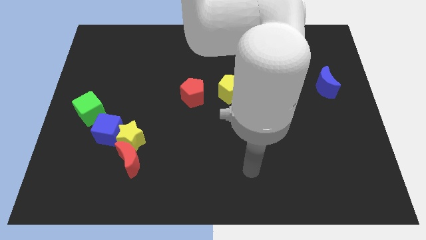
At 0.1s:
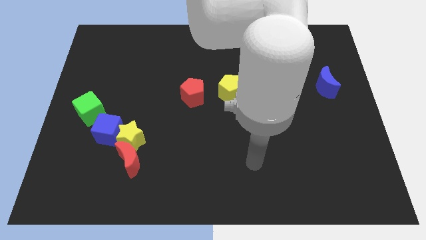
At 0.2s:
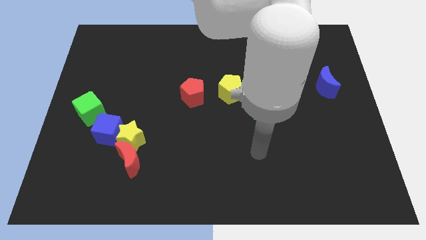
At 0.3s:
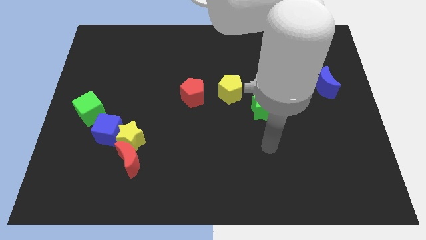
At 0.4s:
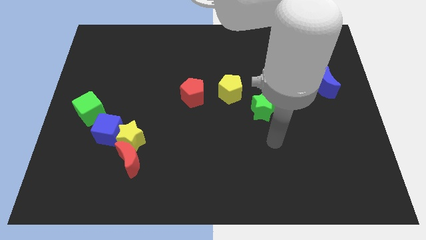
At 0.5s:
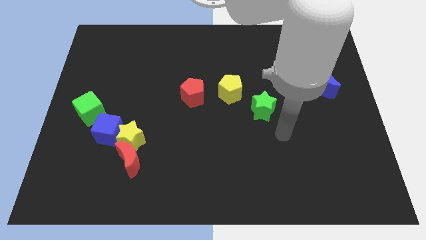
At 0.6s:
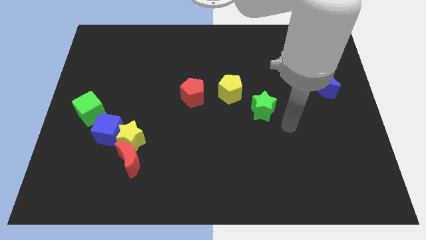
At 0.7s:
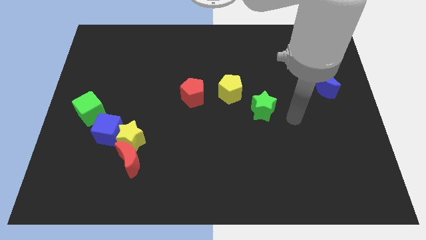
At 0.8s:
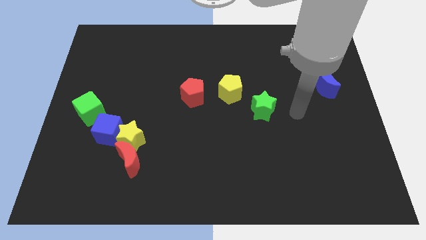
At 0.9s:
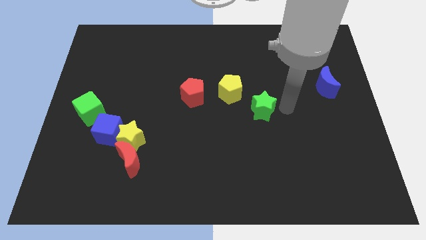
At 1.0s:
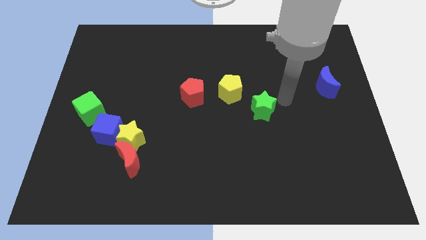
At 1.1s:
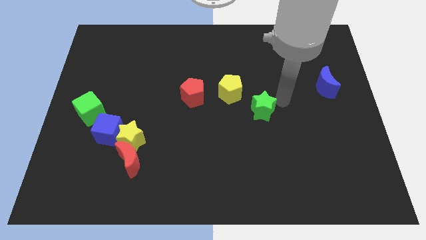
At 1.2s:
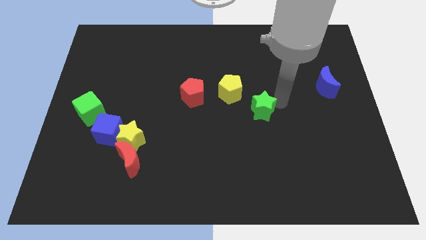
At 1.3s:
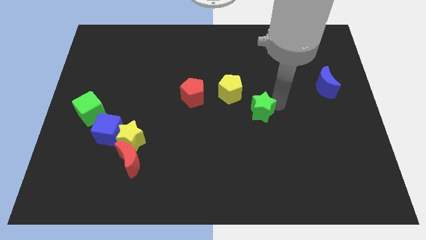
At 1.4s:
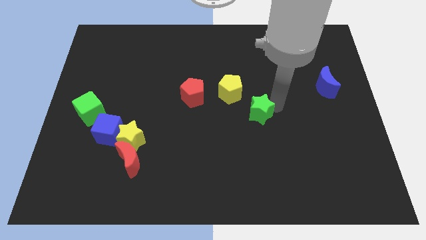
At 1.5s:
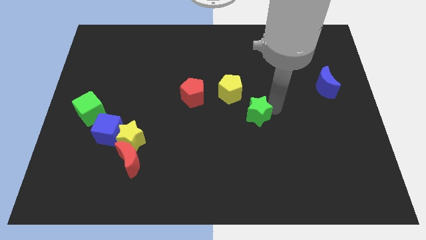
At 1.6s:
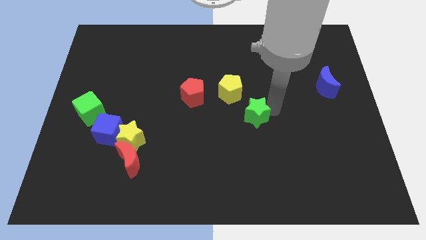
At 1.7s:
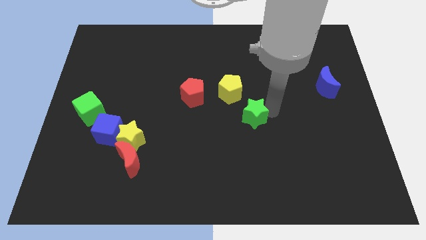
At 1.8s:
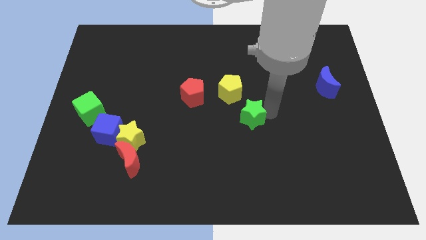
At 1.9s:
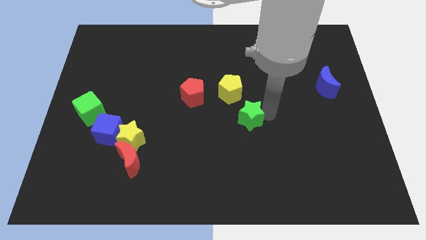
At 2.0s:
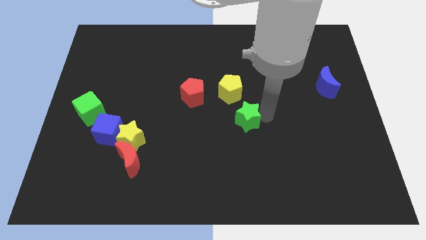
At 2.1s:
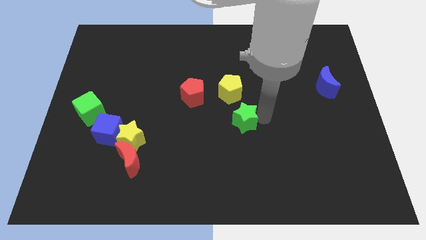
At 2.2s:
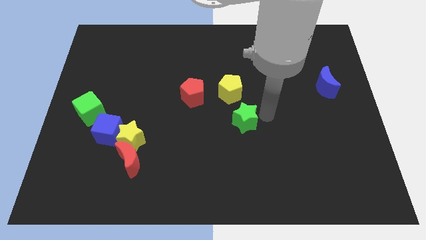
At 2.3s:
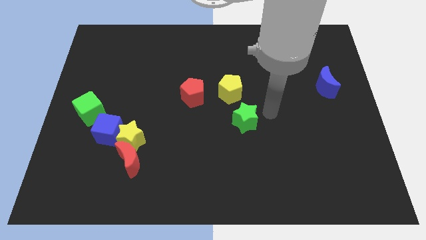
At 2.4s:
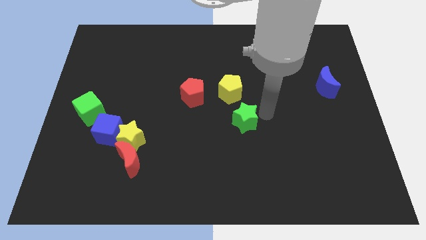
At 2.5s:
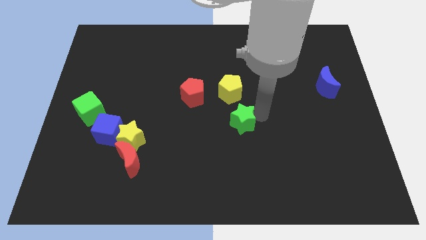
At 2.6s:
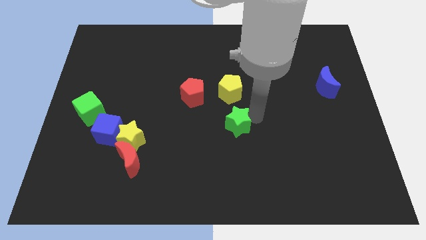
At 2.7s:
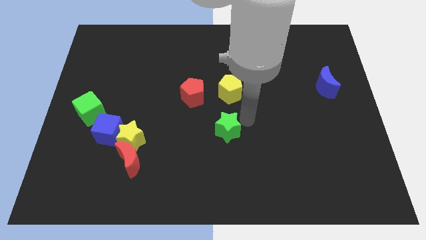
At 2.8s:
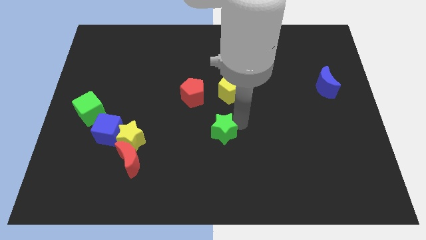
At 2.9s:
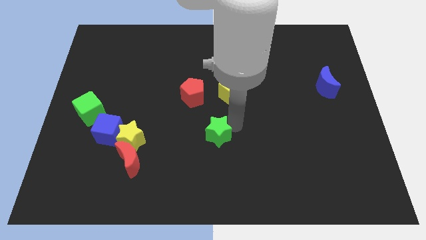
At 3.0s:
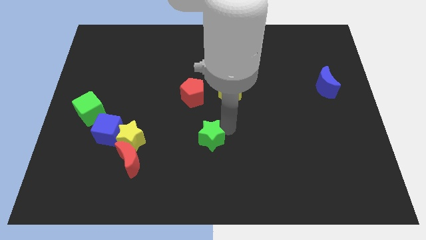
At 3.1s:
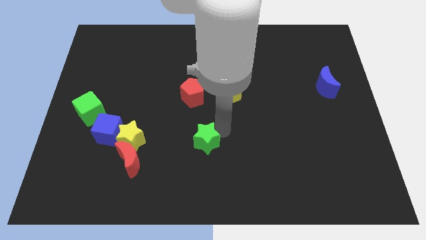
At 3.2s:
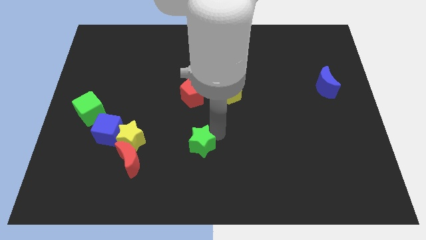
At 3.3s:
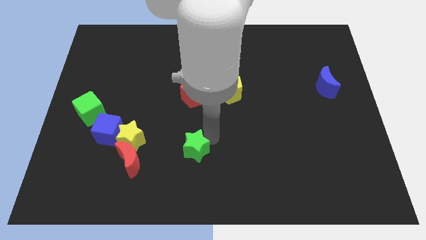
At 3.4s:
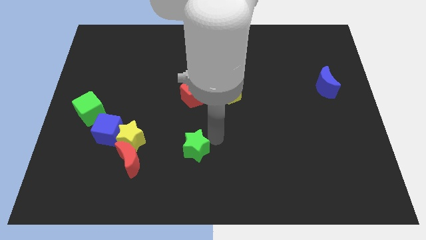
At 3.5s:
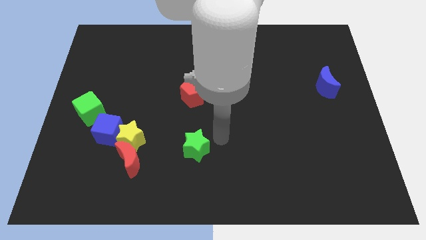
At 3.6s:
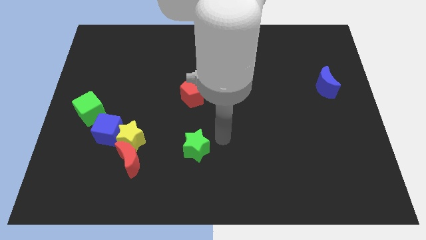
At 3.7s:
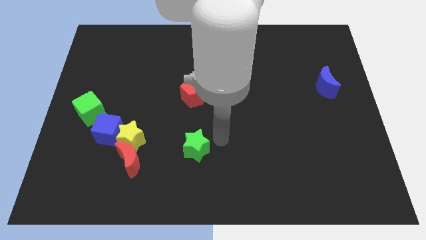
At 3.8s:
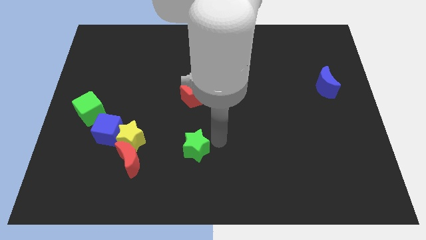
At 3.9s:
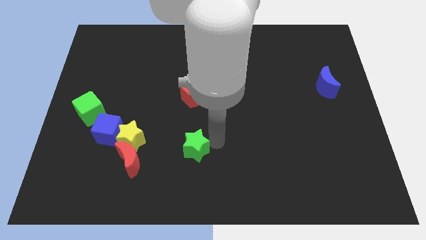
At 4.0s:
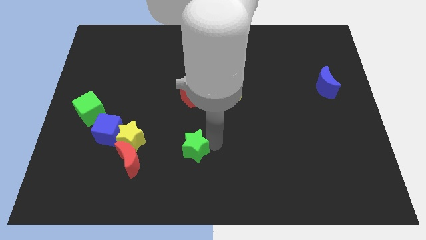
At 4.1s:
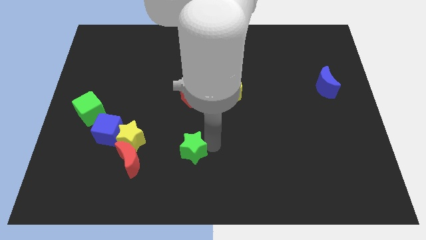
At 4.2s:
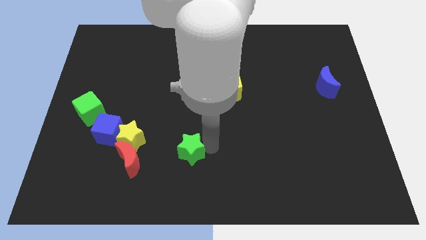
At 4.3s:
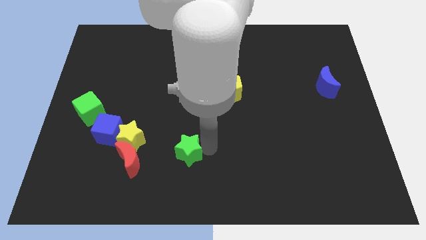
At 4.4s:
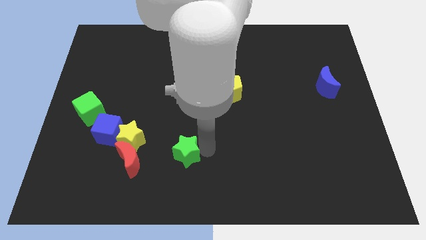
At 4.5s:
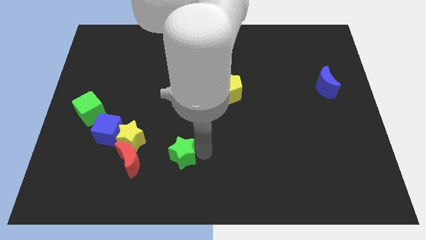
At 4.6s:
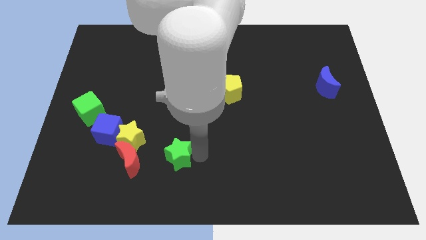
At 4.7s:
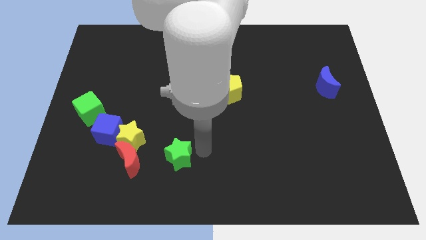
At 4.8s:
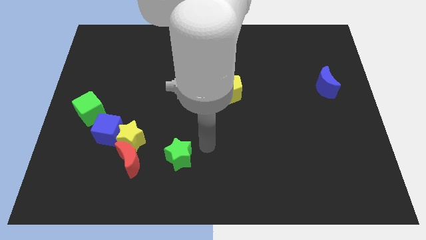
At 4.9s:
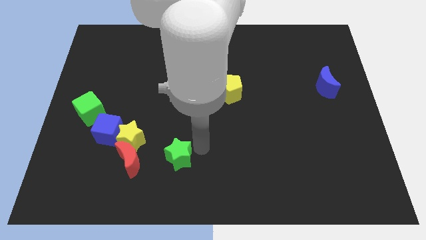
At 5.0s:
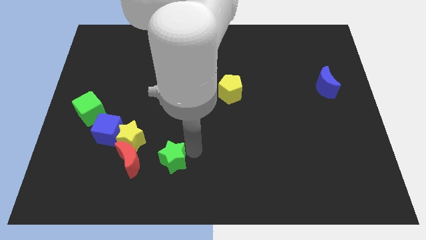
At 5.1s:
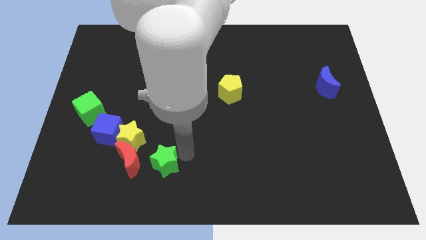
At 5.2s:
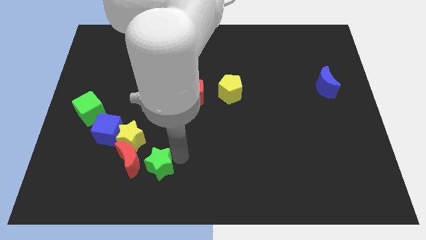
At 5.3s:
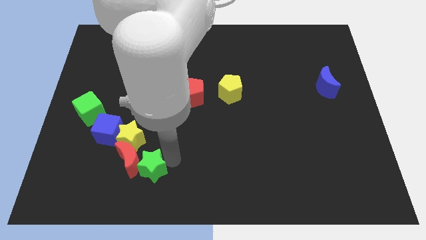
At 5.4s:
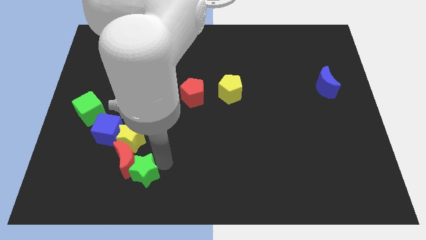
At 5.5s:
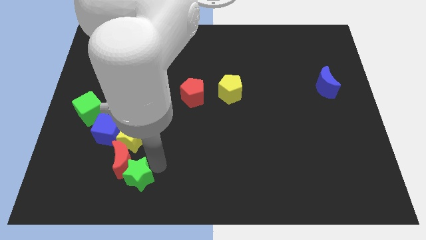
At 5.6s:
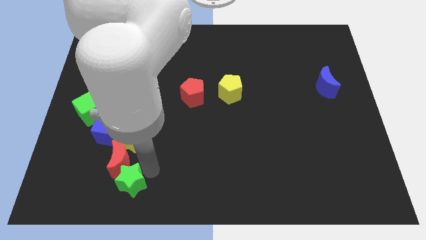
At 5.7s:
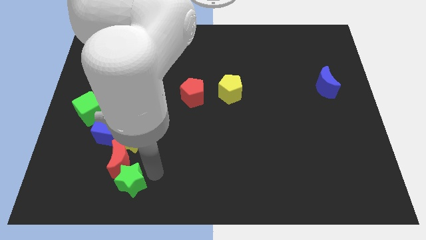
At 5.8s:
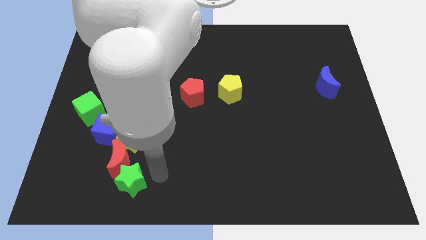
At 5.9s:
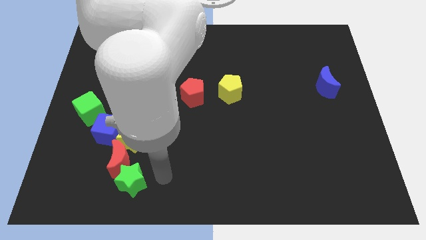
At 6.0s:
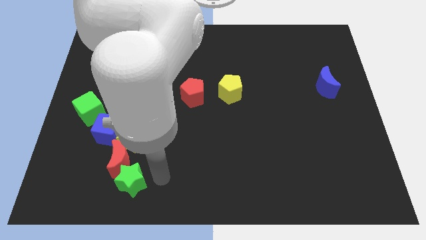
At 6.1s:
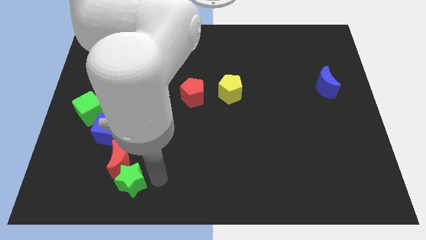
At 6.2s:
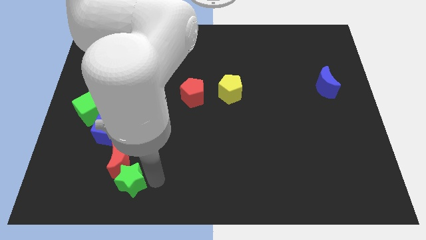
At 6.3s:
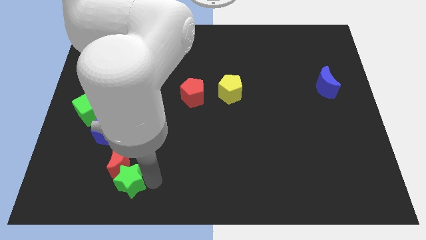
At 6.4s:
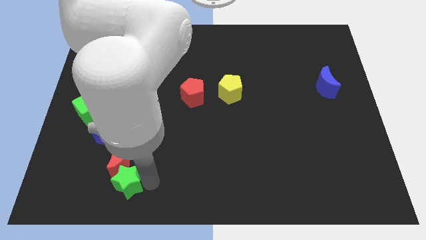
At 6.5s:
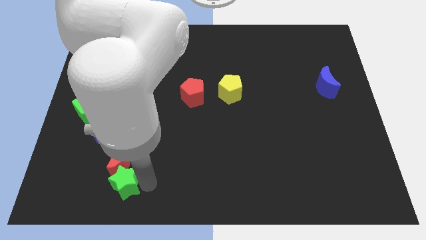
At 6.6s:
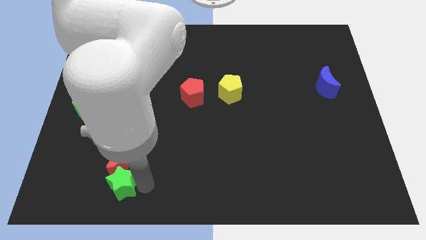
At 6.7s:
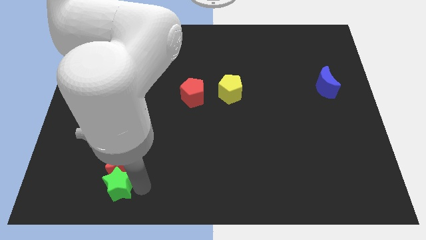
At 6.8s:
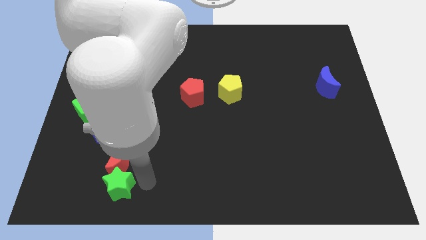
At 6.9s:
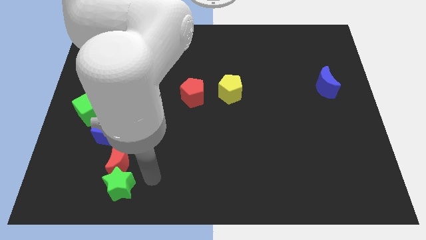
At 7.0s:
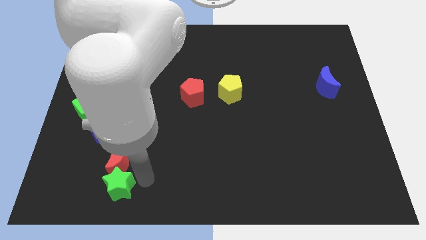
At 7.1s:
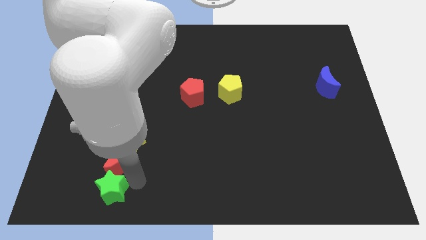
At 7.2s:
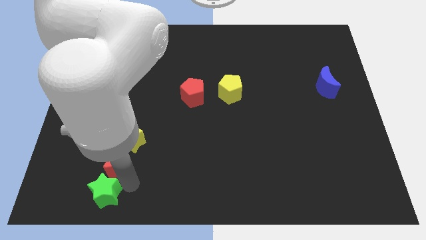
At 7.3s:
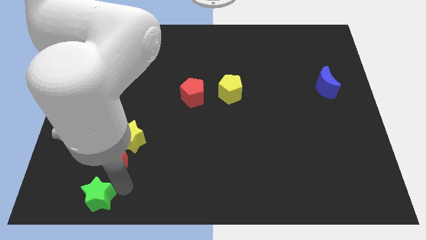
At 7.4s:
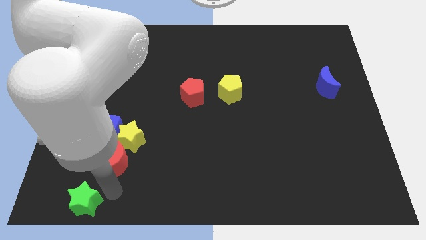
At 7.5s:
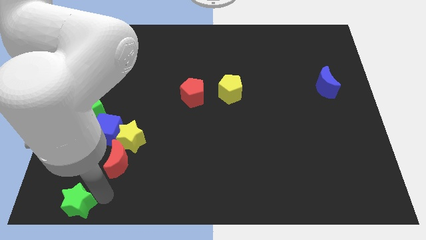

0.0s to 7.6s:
move the green star to the bottom left of the board

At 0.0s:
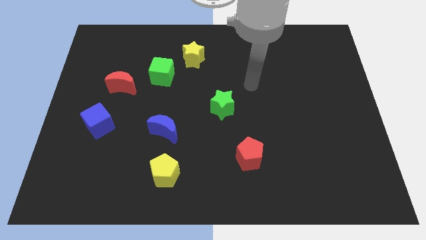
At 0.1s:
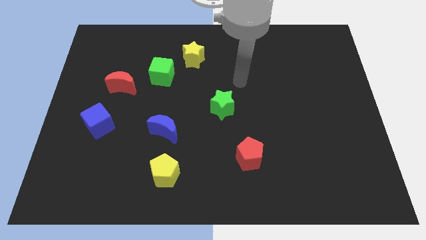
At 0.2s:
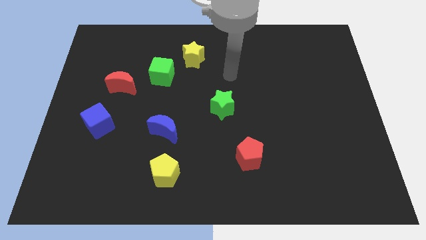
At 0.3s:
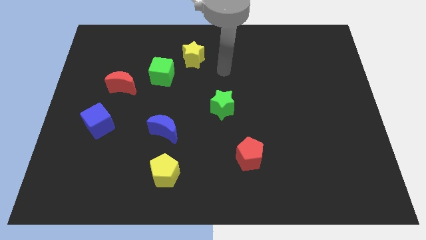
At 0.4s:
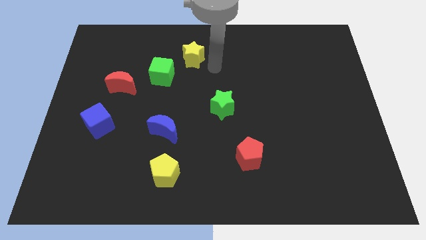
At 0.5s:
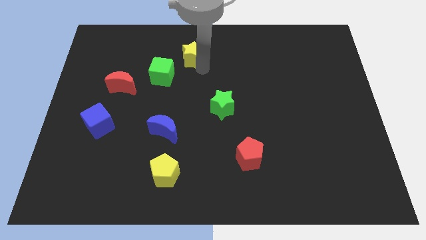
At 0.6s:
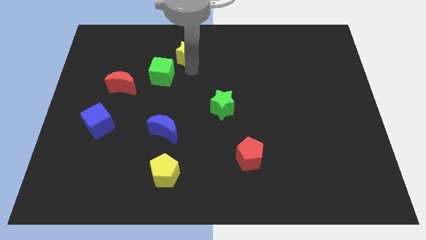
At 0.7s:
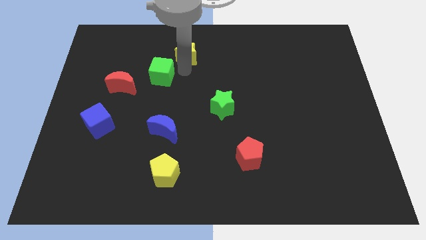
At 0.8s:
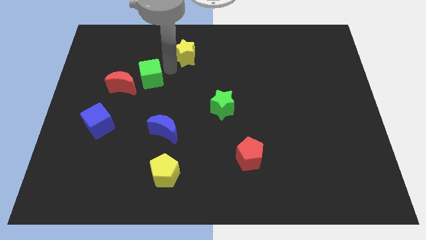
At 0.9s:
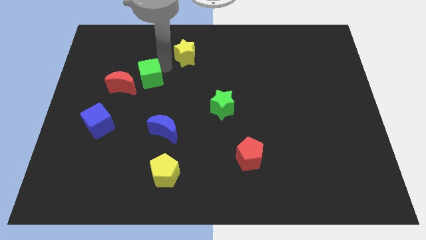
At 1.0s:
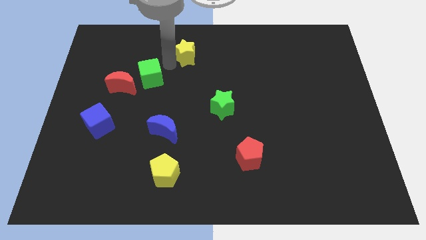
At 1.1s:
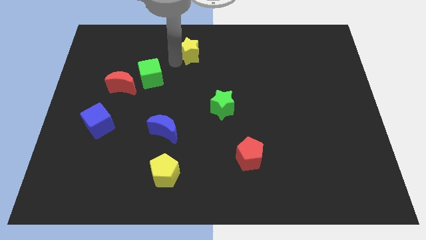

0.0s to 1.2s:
move the yellow star to the top side
